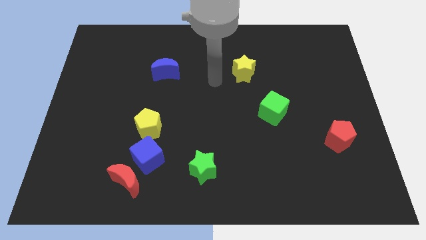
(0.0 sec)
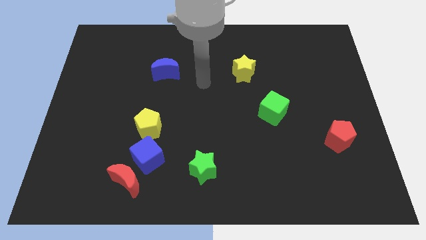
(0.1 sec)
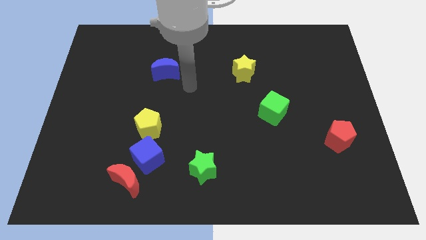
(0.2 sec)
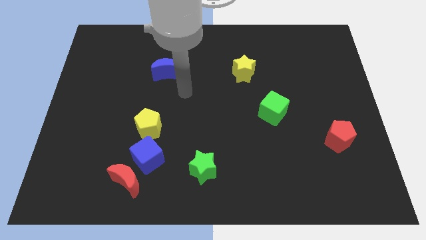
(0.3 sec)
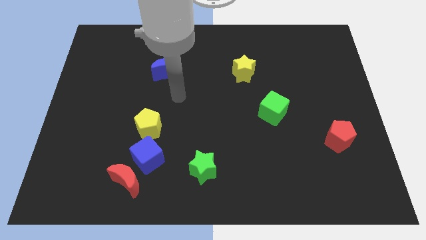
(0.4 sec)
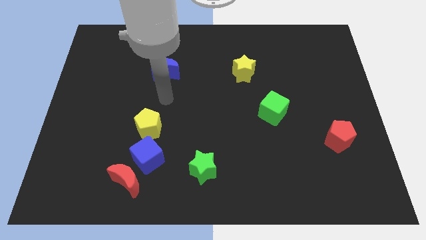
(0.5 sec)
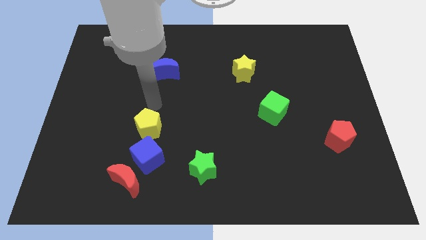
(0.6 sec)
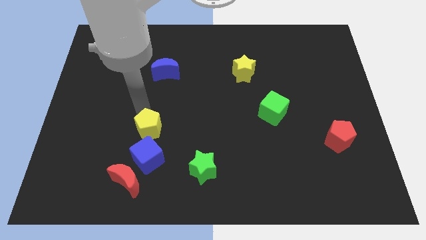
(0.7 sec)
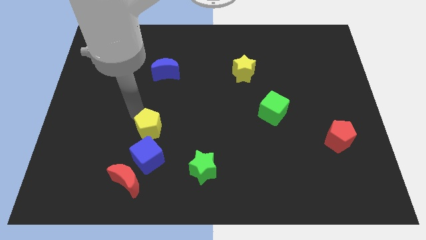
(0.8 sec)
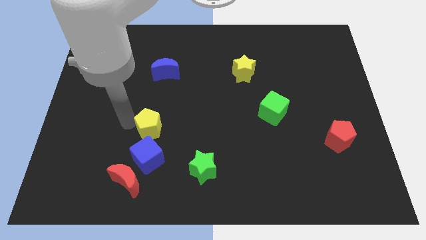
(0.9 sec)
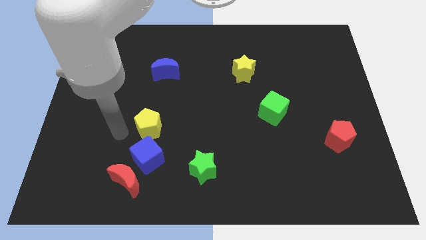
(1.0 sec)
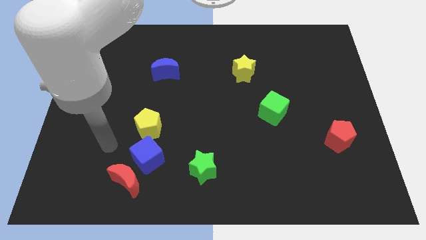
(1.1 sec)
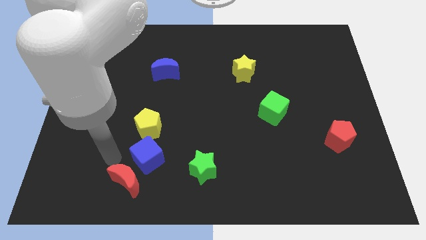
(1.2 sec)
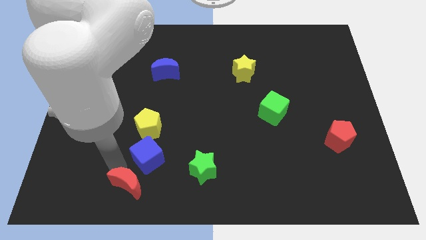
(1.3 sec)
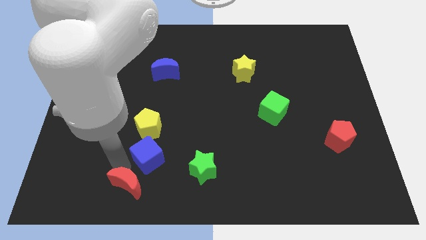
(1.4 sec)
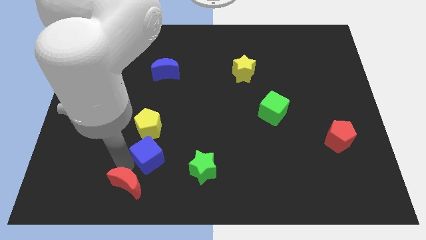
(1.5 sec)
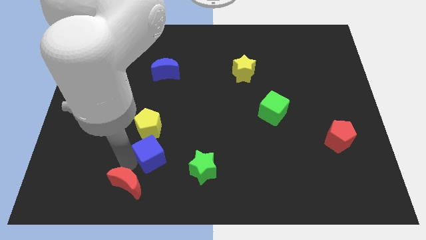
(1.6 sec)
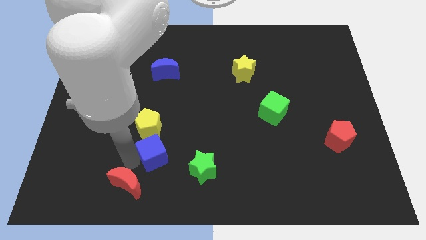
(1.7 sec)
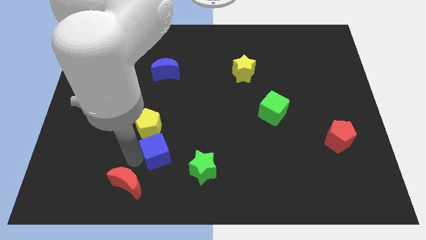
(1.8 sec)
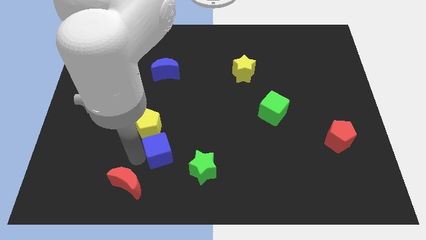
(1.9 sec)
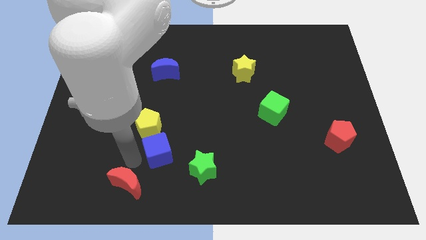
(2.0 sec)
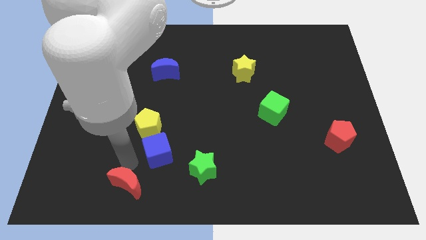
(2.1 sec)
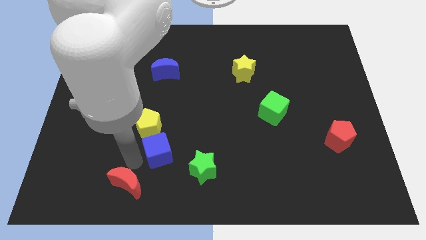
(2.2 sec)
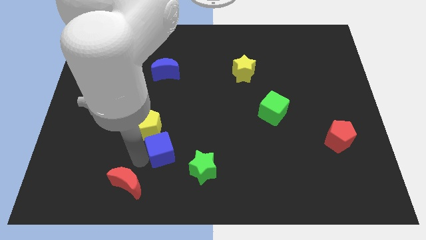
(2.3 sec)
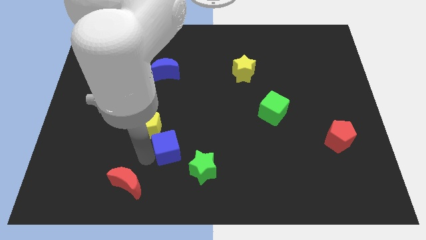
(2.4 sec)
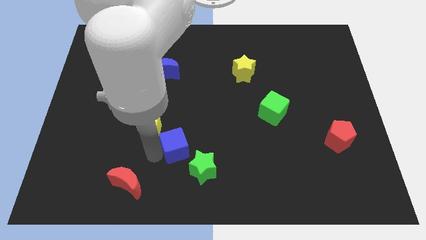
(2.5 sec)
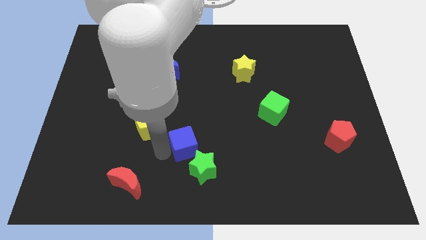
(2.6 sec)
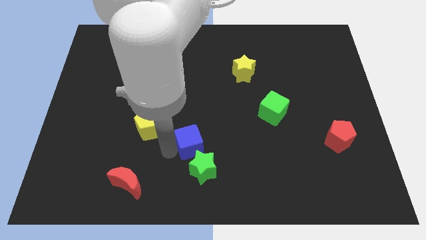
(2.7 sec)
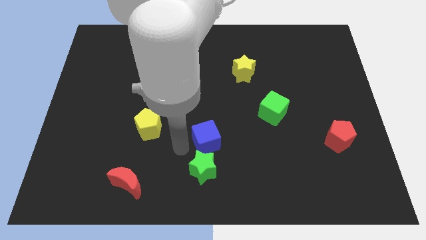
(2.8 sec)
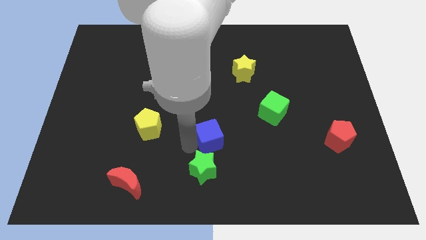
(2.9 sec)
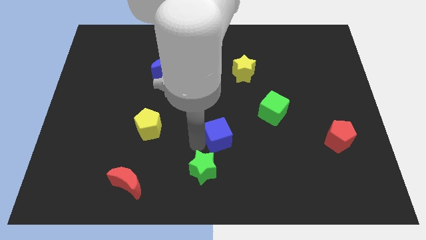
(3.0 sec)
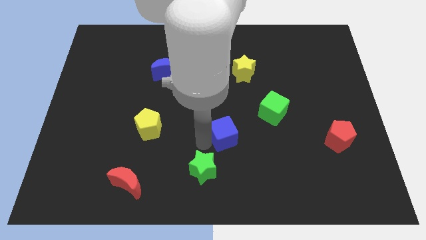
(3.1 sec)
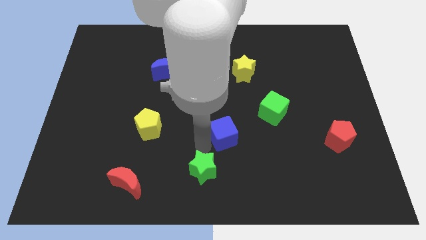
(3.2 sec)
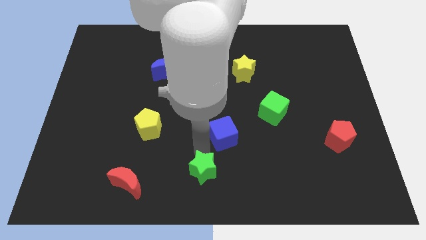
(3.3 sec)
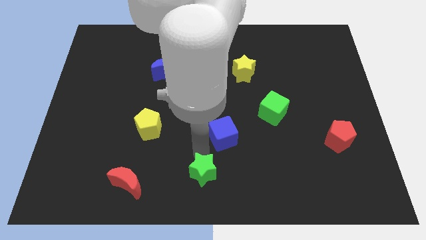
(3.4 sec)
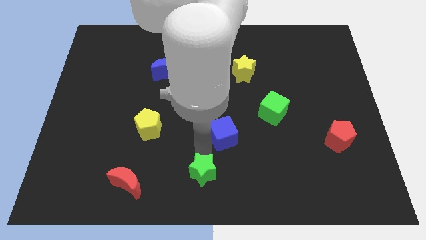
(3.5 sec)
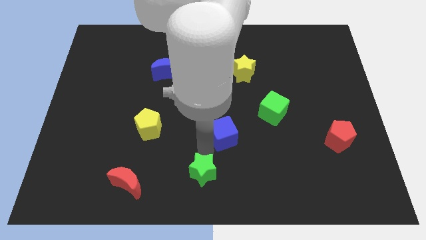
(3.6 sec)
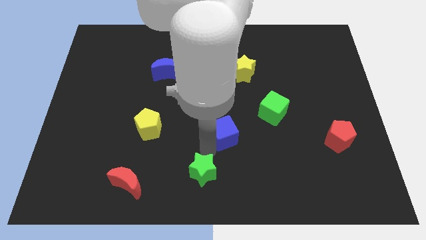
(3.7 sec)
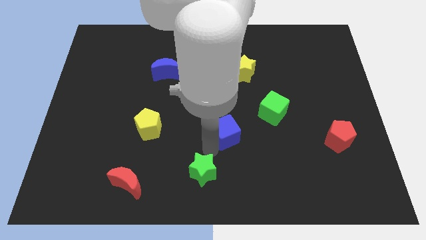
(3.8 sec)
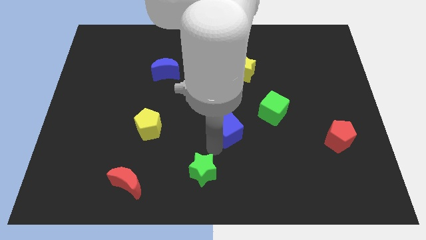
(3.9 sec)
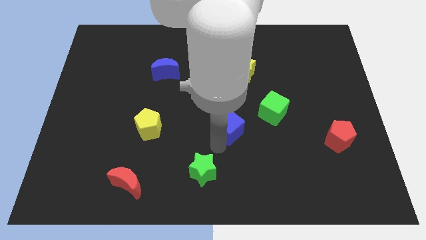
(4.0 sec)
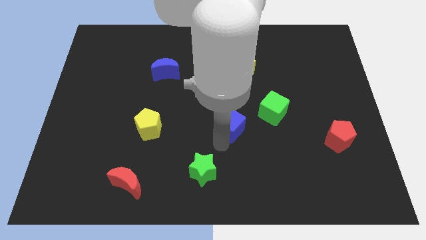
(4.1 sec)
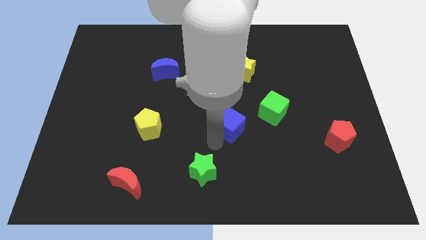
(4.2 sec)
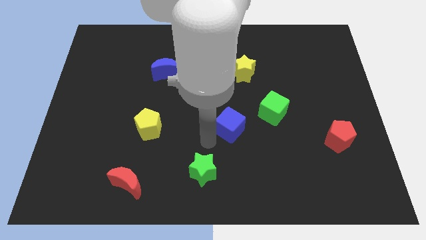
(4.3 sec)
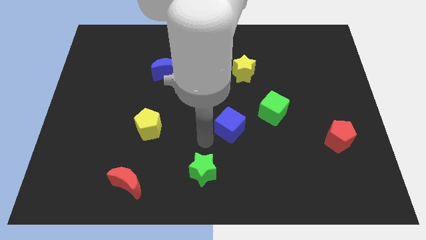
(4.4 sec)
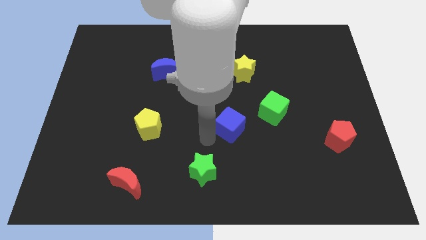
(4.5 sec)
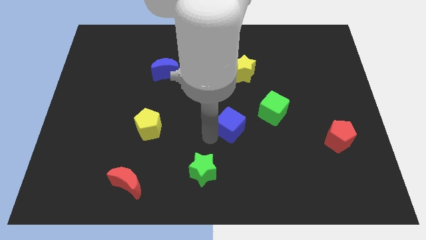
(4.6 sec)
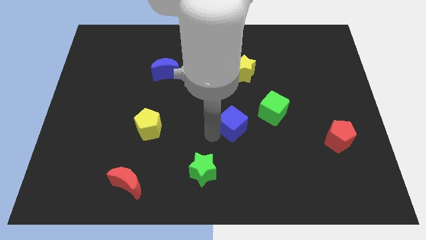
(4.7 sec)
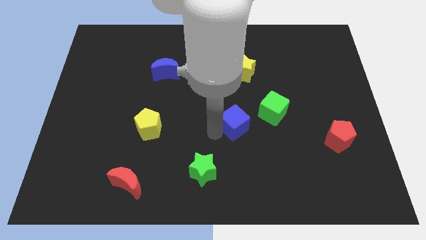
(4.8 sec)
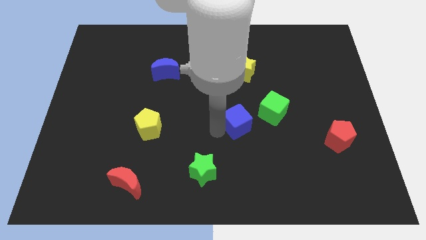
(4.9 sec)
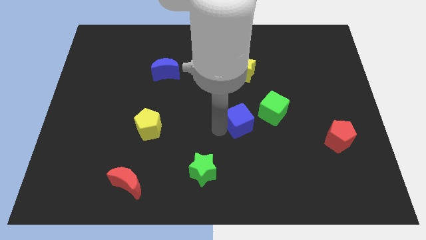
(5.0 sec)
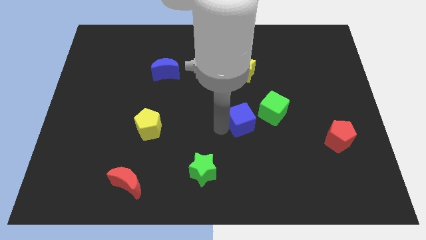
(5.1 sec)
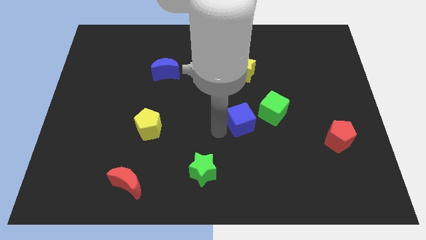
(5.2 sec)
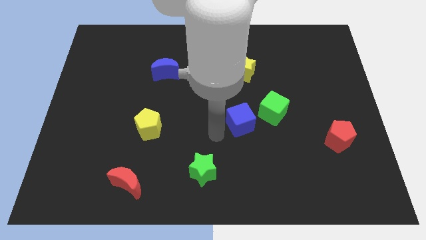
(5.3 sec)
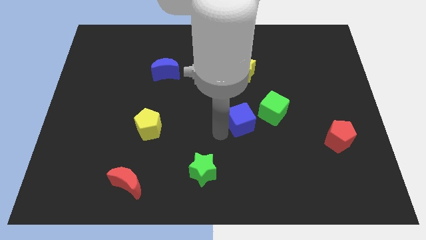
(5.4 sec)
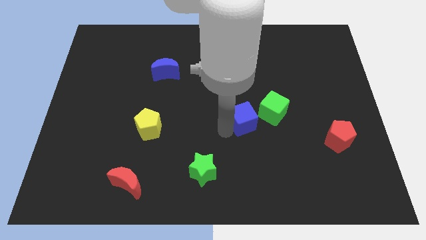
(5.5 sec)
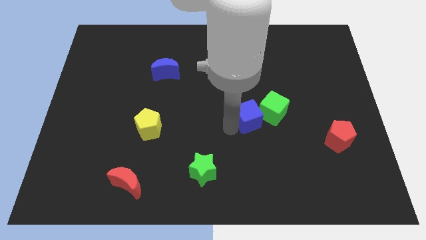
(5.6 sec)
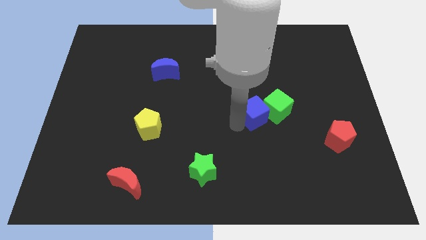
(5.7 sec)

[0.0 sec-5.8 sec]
slide the blue cube next to the green cube

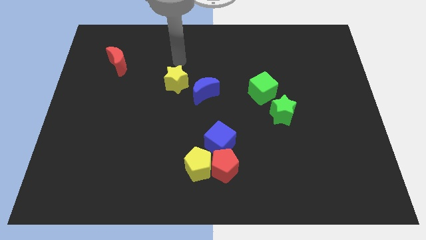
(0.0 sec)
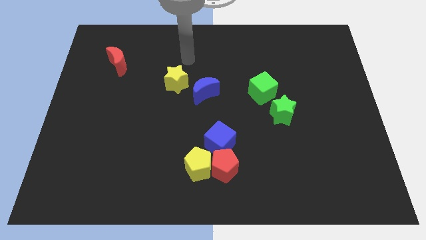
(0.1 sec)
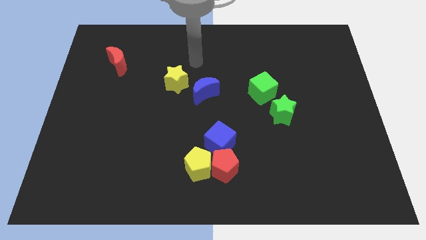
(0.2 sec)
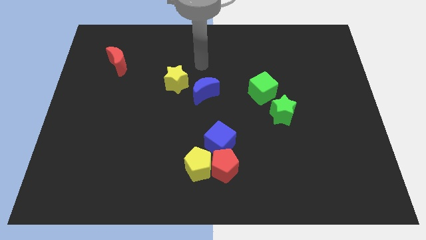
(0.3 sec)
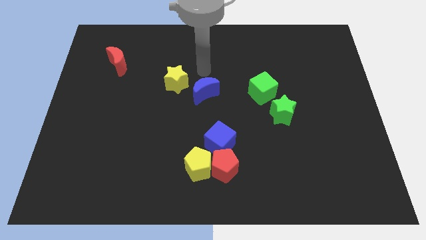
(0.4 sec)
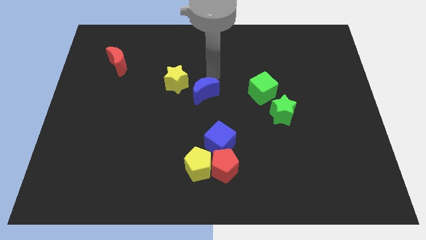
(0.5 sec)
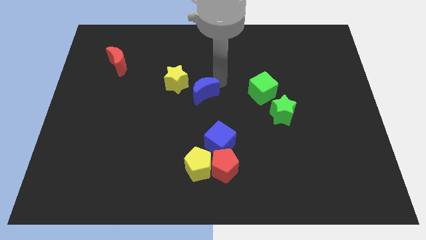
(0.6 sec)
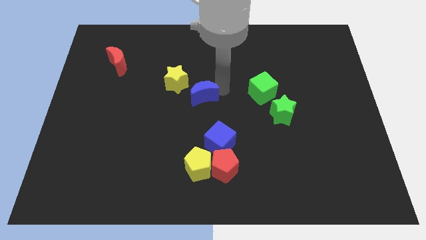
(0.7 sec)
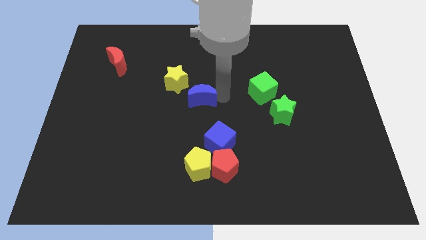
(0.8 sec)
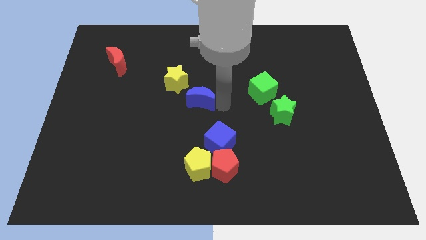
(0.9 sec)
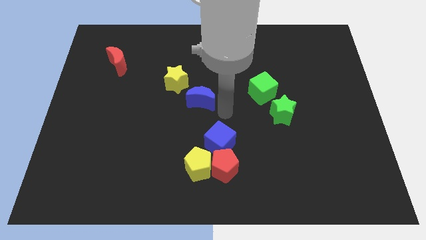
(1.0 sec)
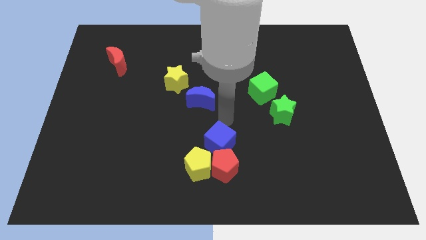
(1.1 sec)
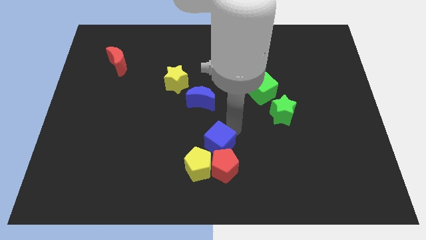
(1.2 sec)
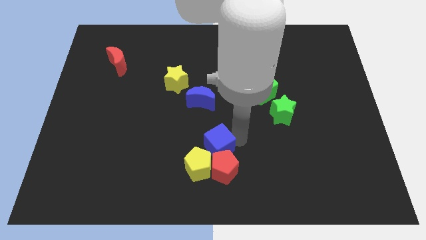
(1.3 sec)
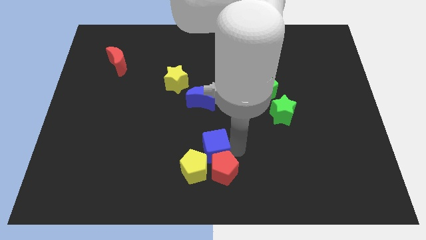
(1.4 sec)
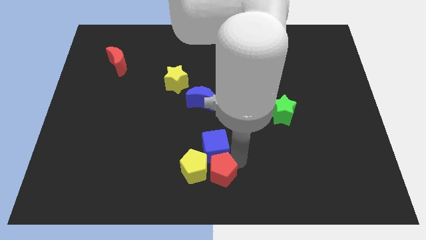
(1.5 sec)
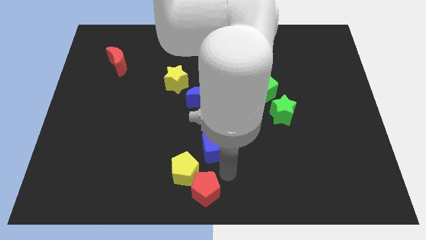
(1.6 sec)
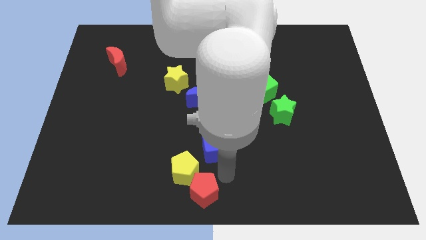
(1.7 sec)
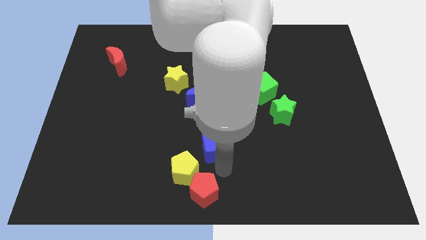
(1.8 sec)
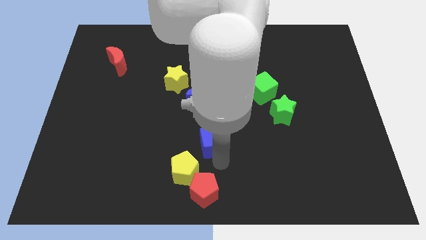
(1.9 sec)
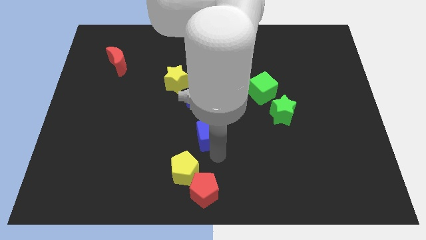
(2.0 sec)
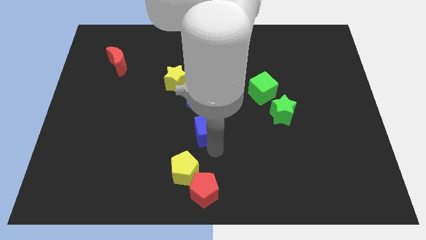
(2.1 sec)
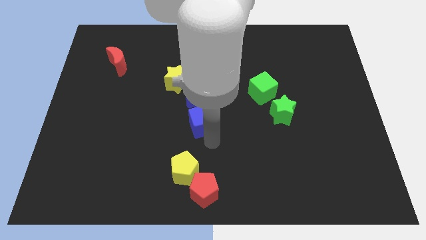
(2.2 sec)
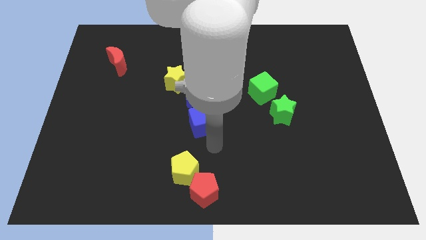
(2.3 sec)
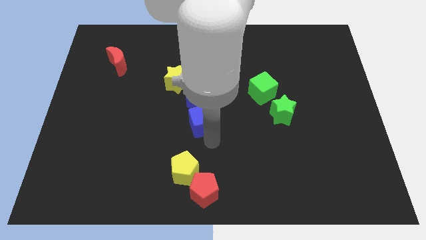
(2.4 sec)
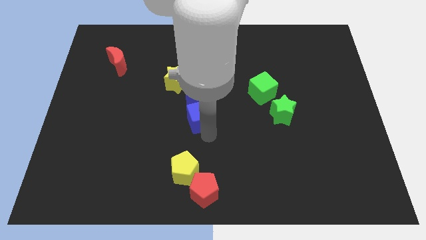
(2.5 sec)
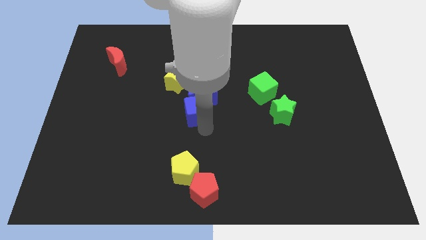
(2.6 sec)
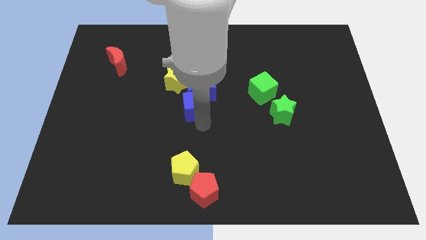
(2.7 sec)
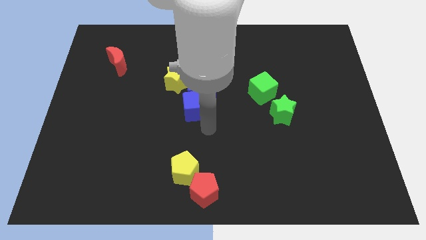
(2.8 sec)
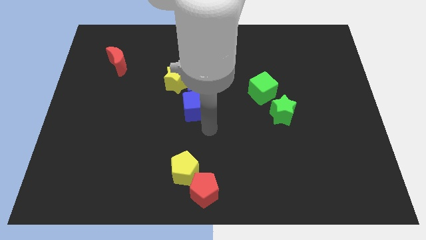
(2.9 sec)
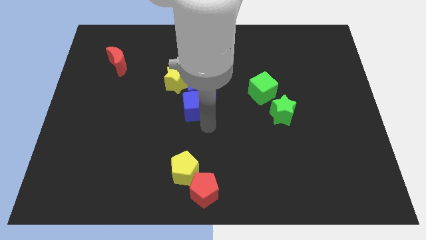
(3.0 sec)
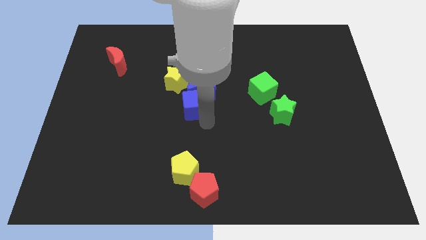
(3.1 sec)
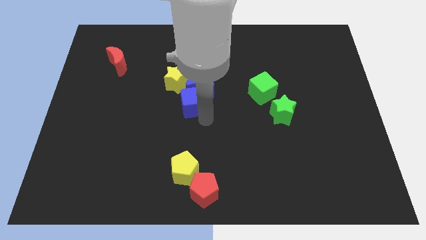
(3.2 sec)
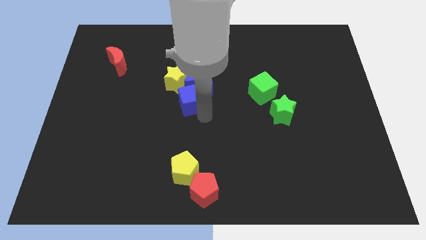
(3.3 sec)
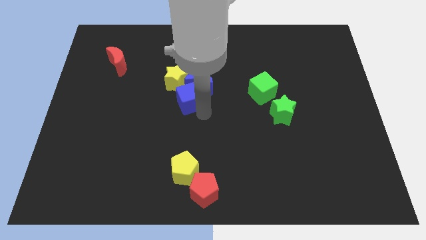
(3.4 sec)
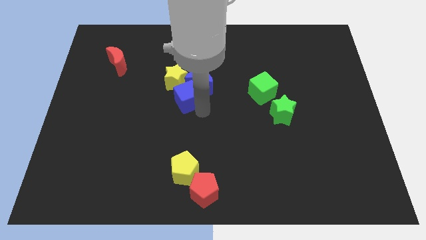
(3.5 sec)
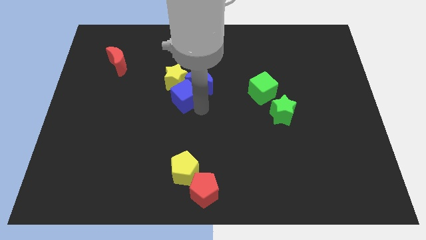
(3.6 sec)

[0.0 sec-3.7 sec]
move the blue cube towards the yellow star
